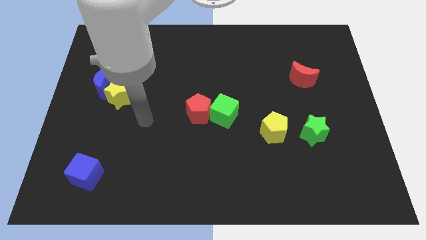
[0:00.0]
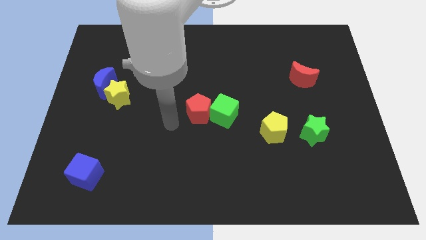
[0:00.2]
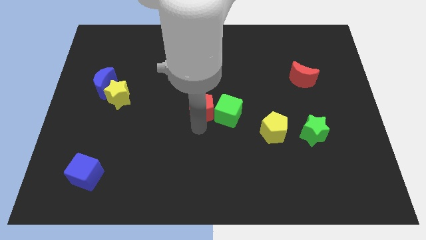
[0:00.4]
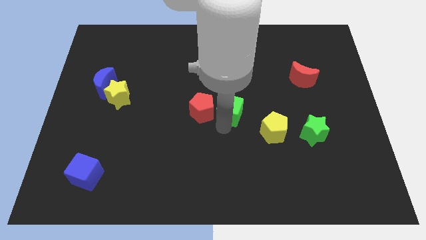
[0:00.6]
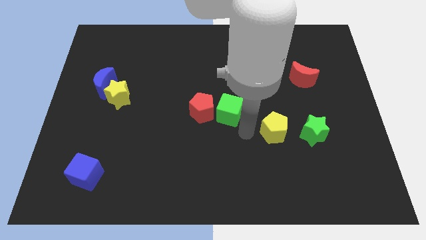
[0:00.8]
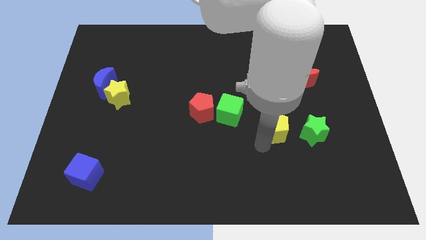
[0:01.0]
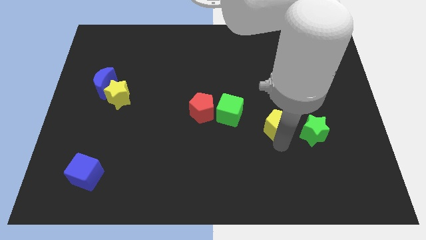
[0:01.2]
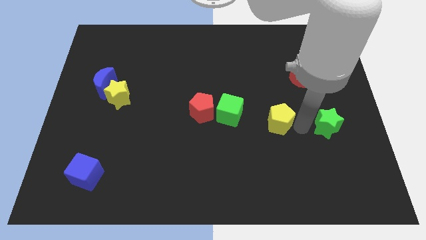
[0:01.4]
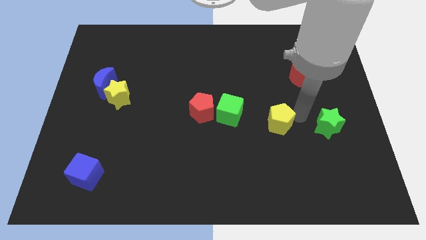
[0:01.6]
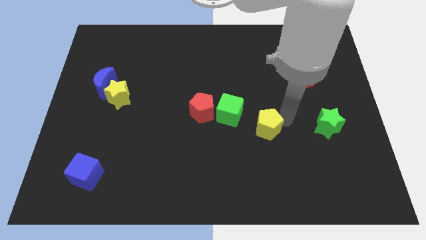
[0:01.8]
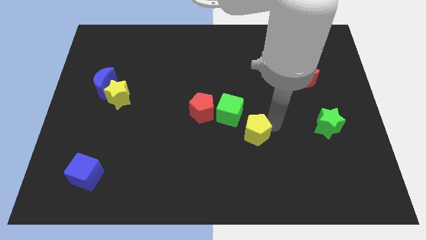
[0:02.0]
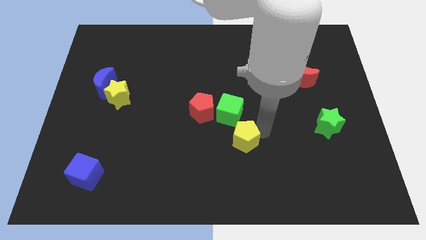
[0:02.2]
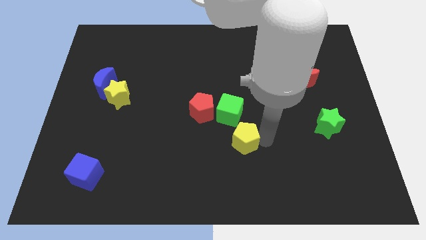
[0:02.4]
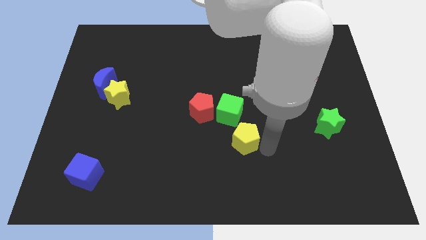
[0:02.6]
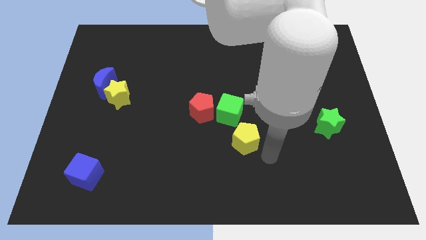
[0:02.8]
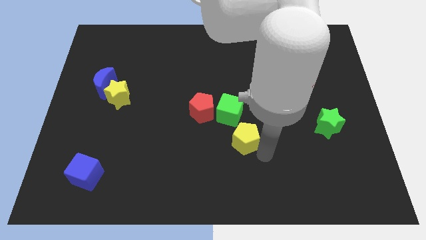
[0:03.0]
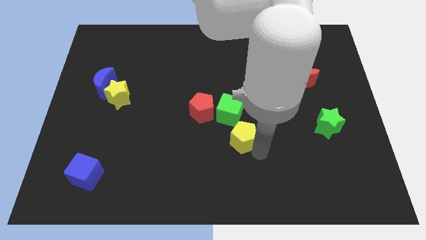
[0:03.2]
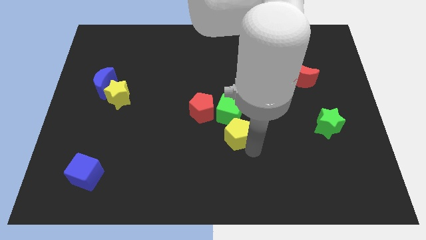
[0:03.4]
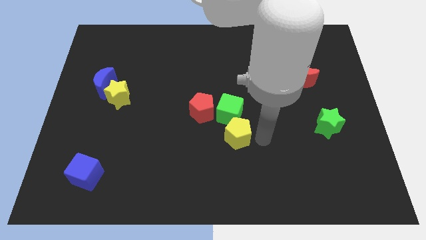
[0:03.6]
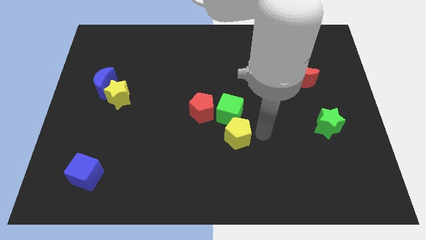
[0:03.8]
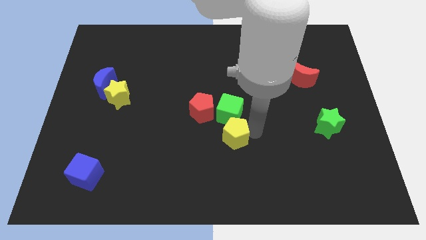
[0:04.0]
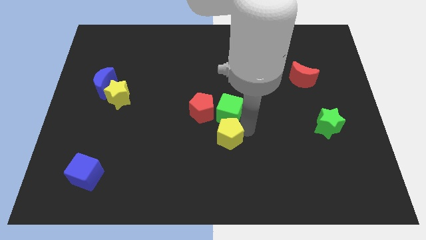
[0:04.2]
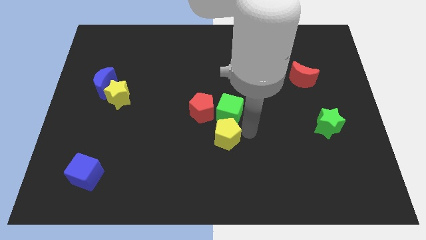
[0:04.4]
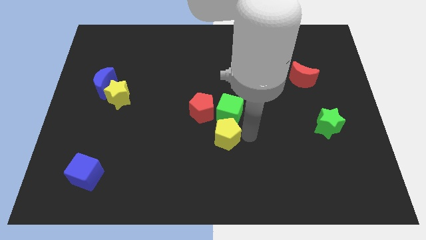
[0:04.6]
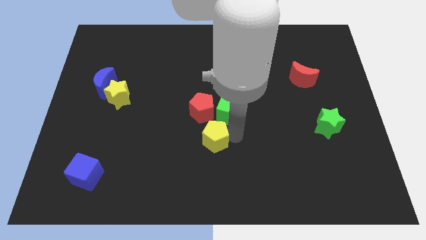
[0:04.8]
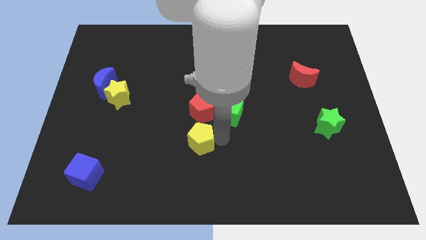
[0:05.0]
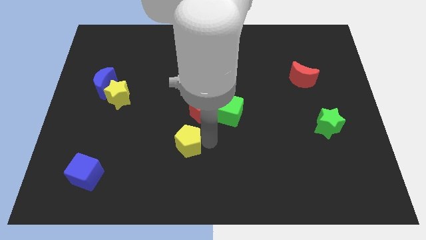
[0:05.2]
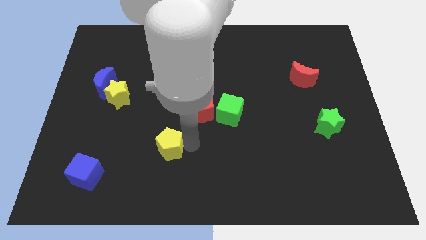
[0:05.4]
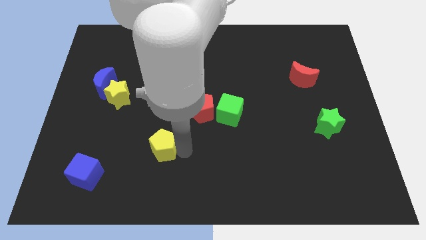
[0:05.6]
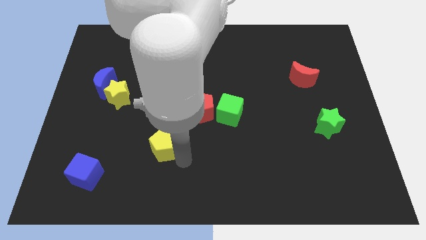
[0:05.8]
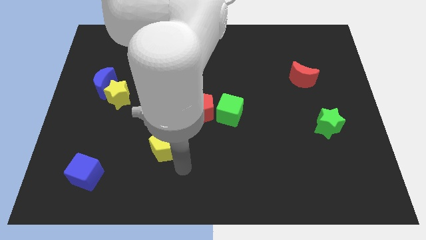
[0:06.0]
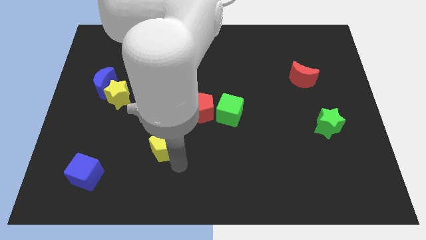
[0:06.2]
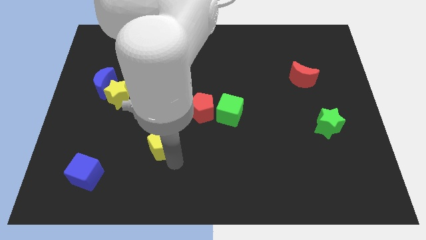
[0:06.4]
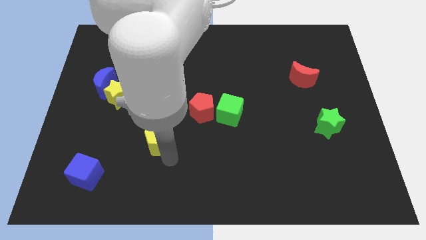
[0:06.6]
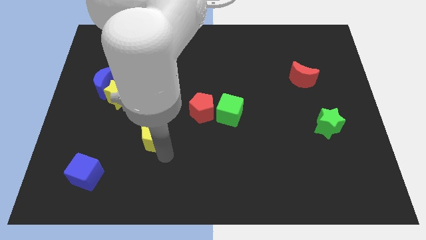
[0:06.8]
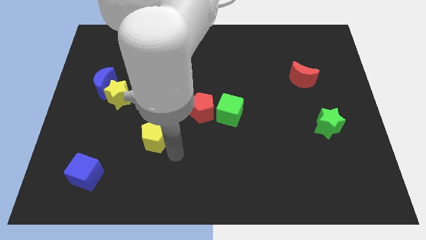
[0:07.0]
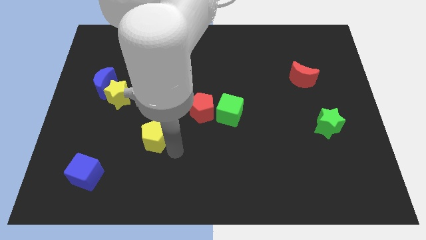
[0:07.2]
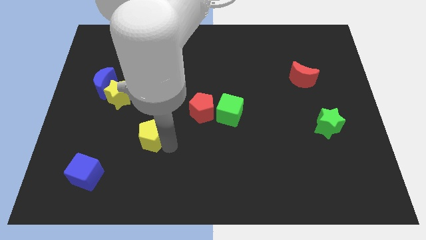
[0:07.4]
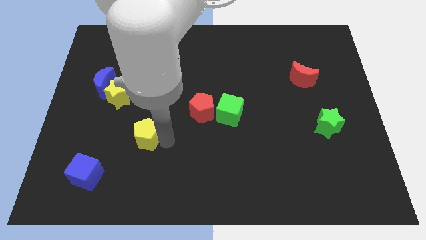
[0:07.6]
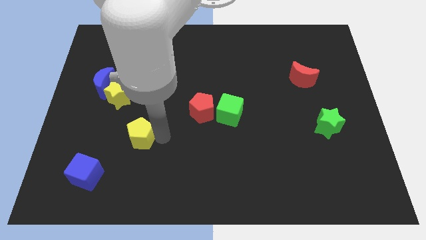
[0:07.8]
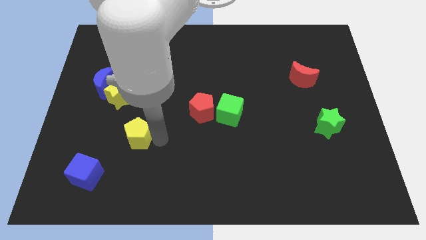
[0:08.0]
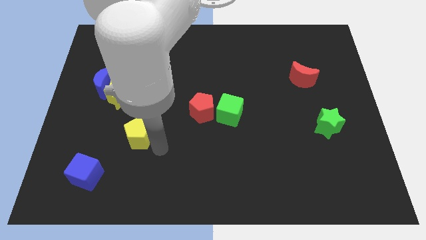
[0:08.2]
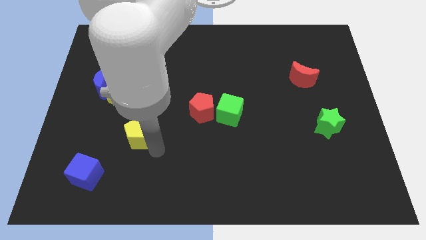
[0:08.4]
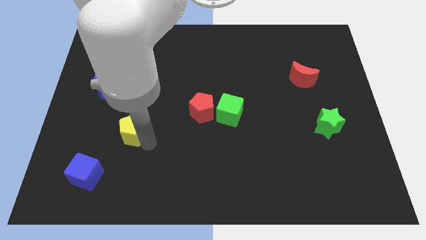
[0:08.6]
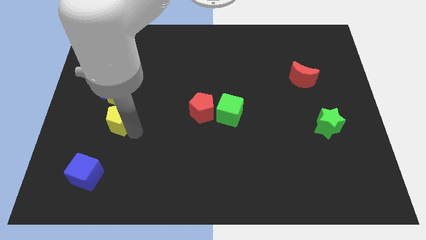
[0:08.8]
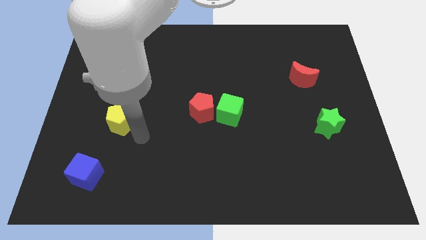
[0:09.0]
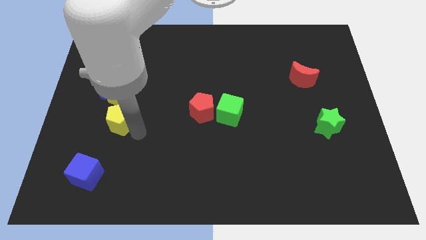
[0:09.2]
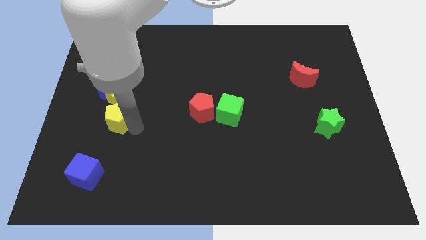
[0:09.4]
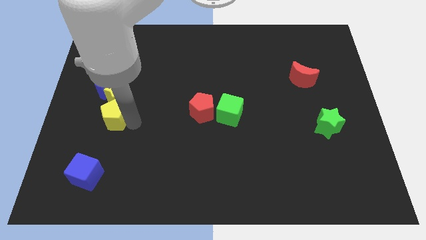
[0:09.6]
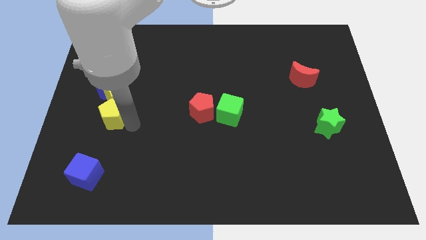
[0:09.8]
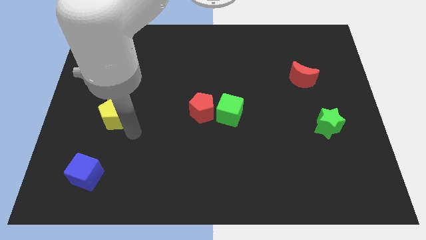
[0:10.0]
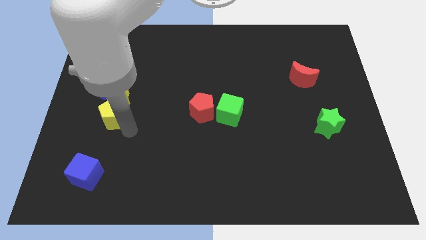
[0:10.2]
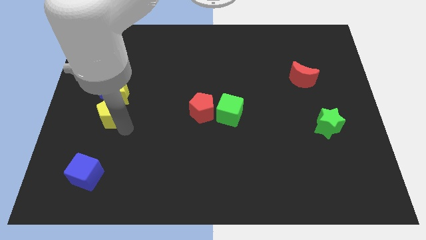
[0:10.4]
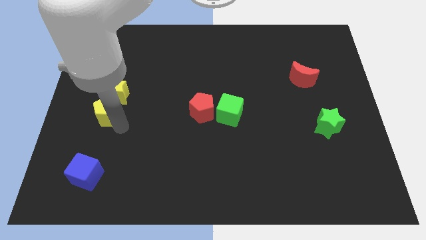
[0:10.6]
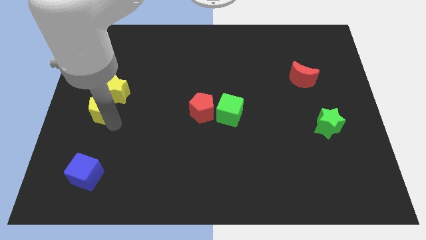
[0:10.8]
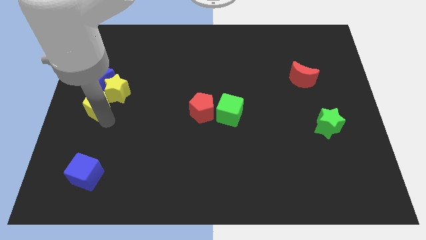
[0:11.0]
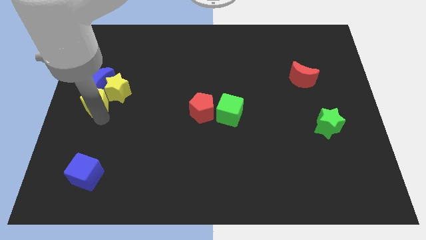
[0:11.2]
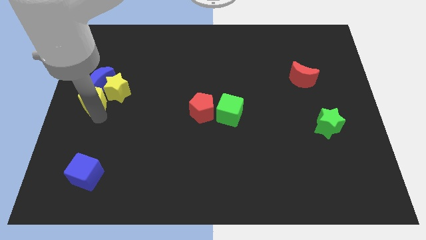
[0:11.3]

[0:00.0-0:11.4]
slide the yellow pentagon to the blue moon

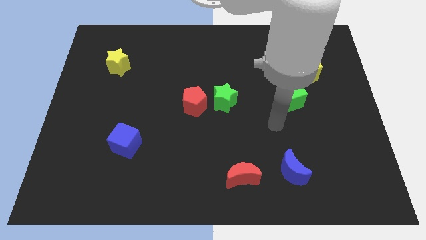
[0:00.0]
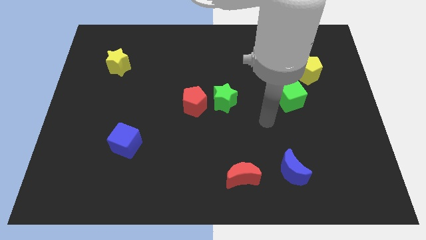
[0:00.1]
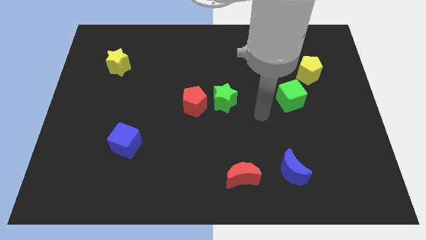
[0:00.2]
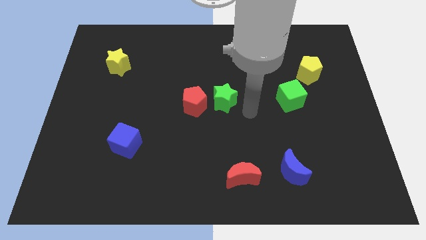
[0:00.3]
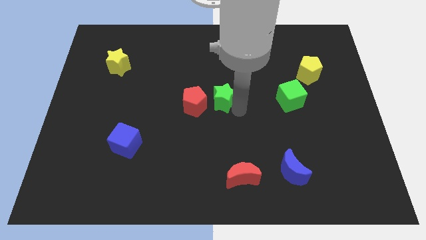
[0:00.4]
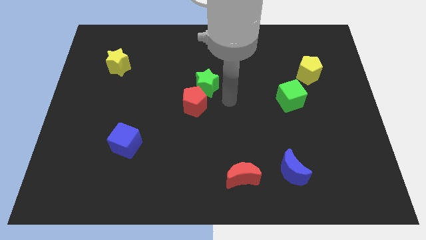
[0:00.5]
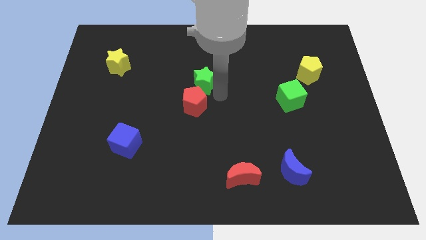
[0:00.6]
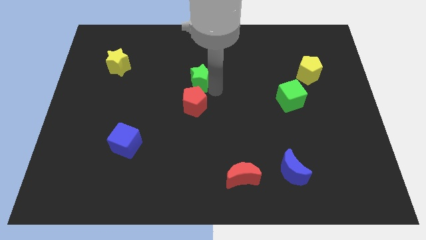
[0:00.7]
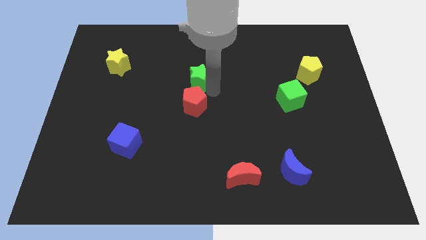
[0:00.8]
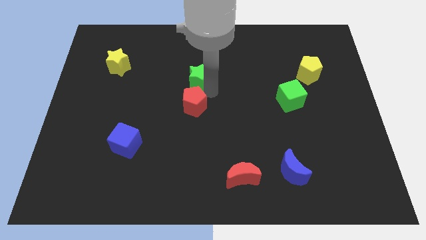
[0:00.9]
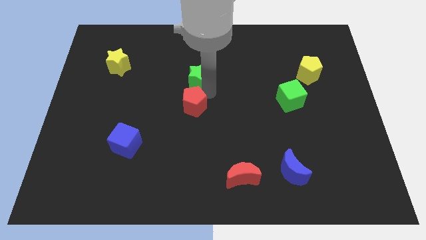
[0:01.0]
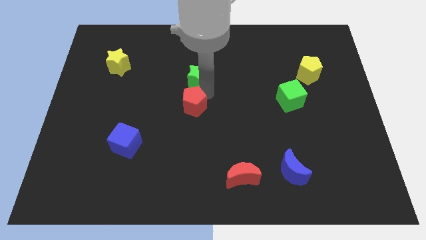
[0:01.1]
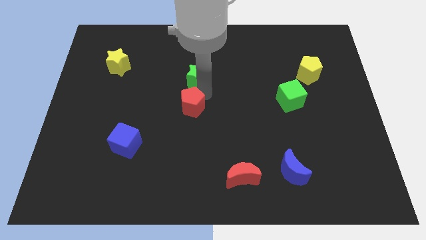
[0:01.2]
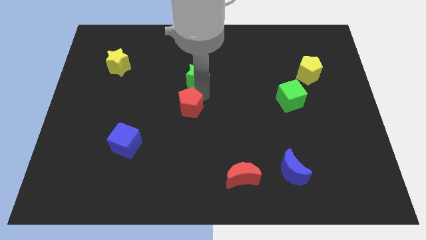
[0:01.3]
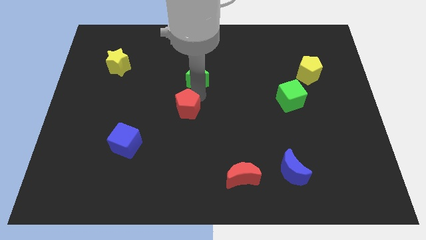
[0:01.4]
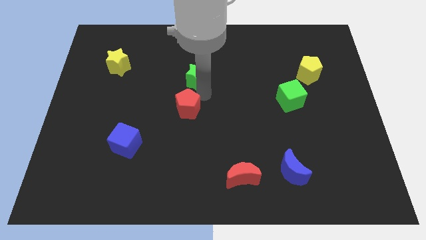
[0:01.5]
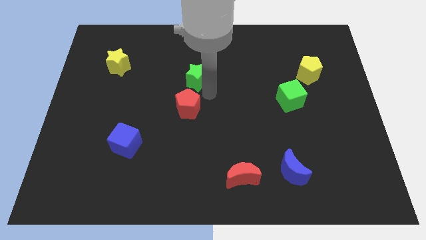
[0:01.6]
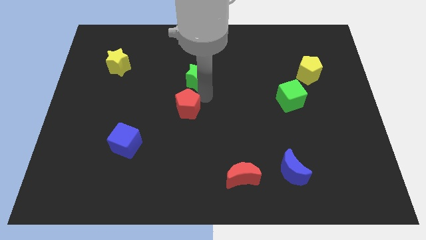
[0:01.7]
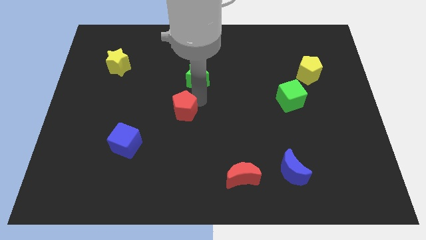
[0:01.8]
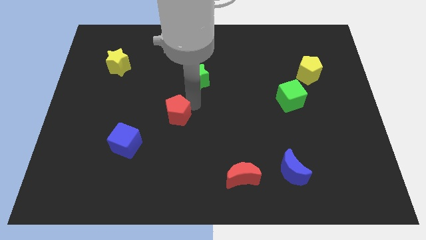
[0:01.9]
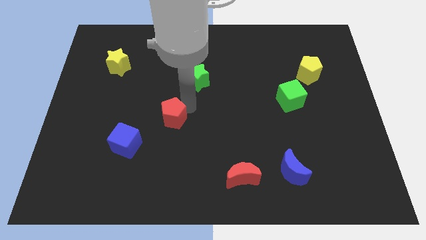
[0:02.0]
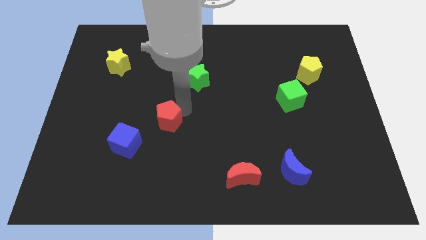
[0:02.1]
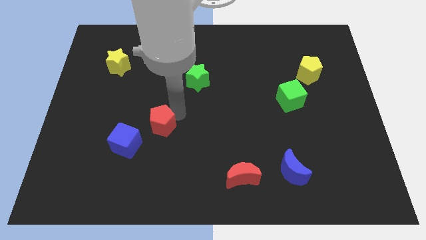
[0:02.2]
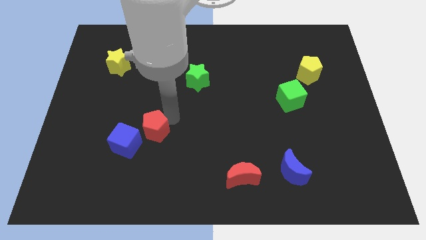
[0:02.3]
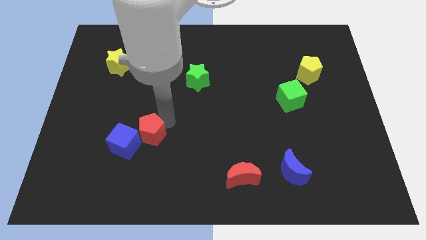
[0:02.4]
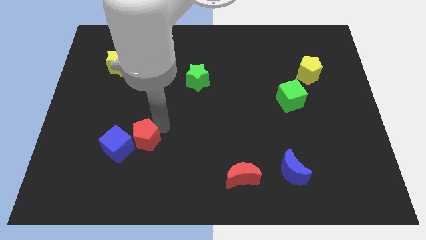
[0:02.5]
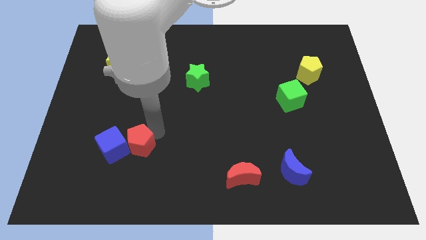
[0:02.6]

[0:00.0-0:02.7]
push the red pentagon close to the blue cube
